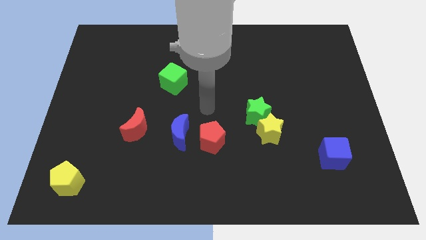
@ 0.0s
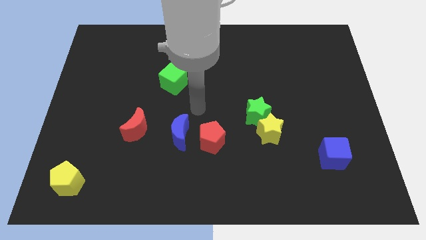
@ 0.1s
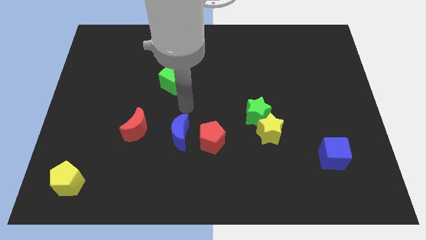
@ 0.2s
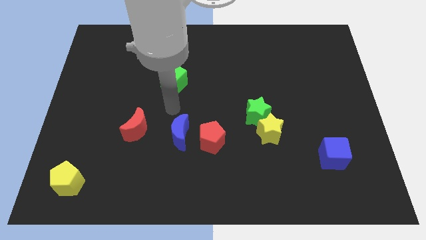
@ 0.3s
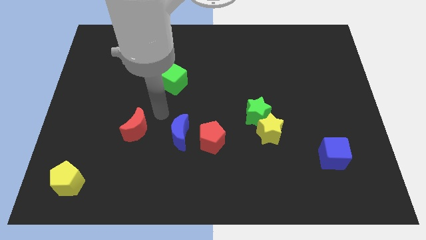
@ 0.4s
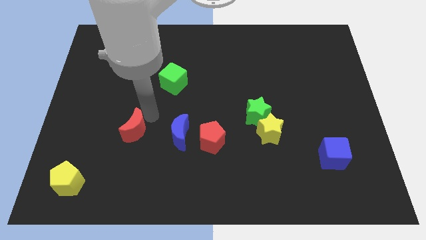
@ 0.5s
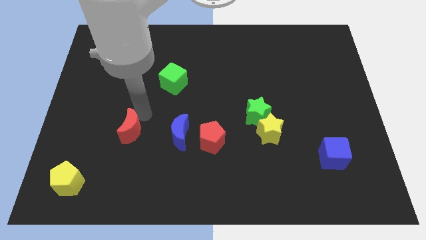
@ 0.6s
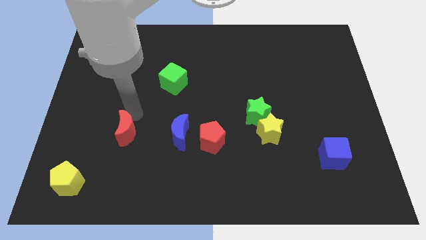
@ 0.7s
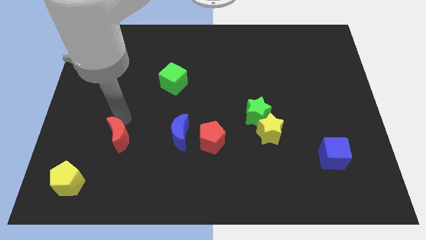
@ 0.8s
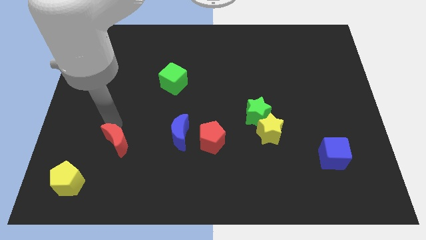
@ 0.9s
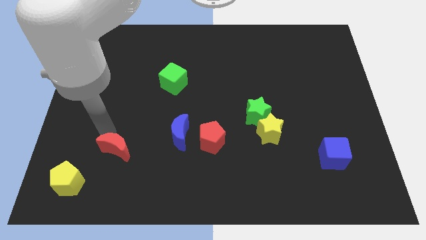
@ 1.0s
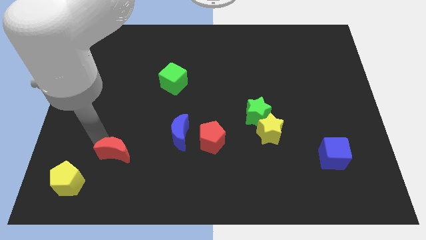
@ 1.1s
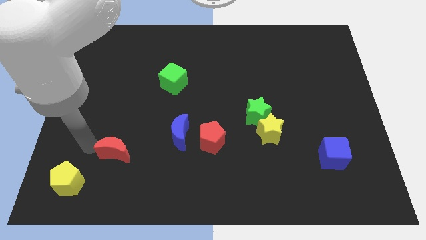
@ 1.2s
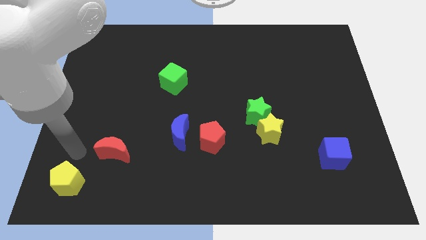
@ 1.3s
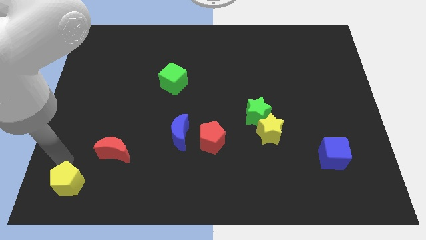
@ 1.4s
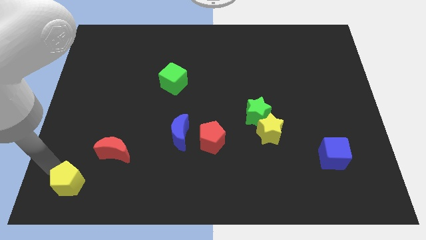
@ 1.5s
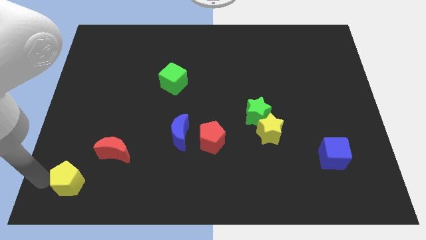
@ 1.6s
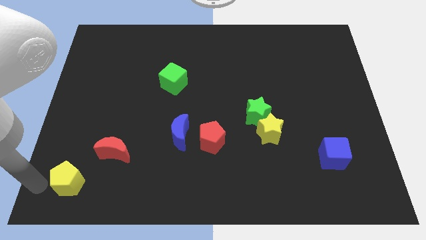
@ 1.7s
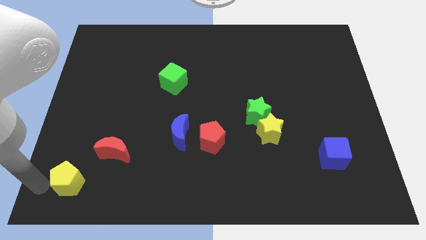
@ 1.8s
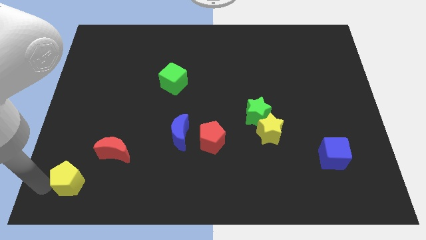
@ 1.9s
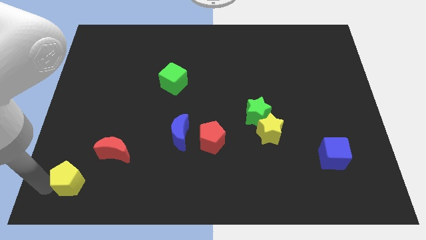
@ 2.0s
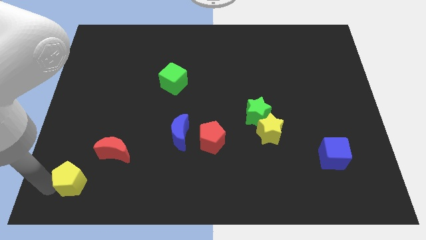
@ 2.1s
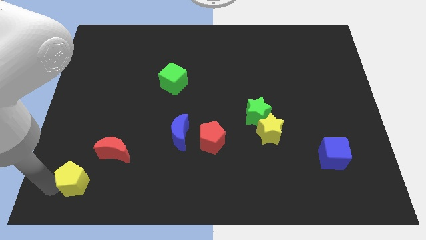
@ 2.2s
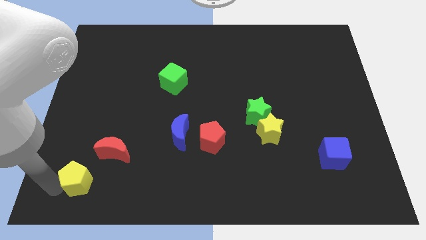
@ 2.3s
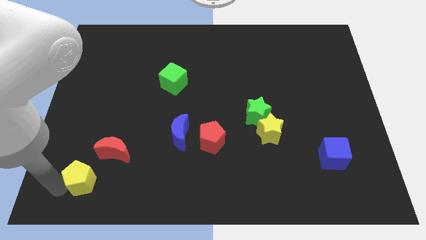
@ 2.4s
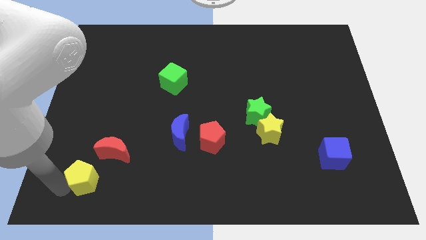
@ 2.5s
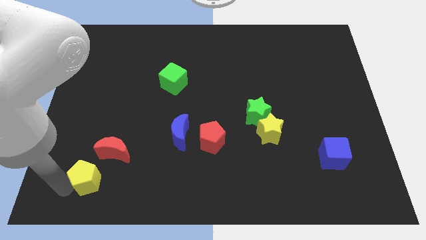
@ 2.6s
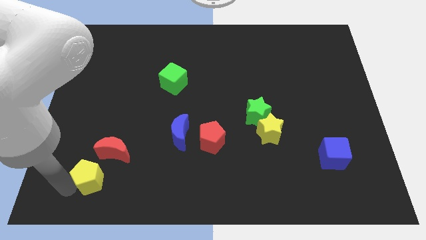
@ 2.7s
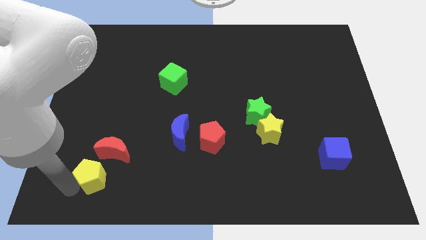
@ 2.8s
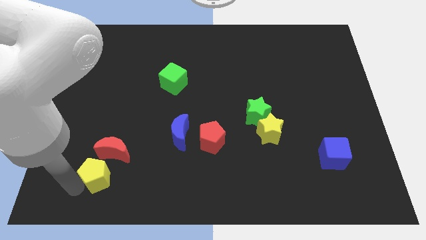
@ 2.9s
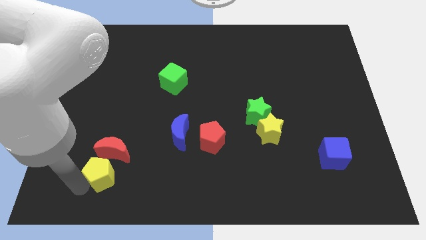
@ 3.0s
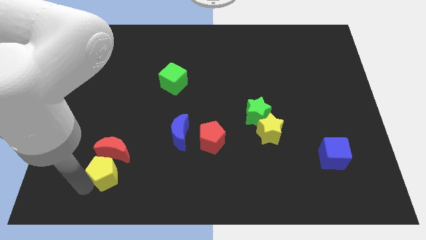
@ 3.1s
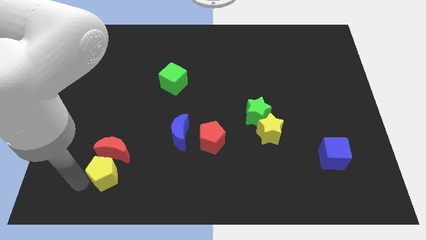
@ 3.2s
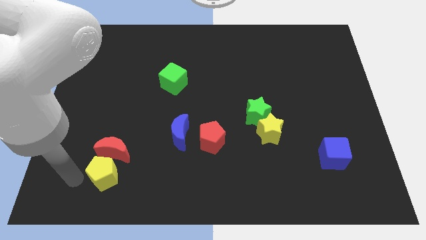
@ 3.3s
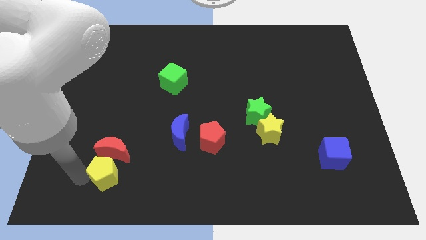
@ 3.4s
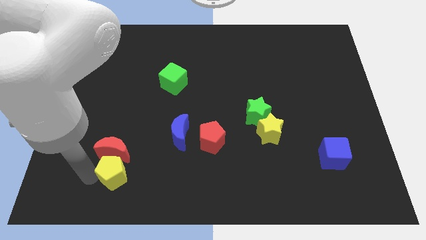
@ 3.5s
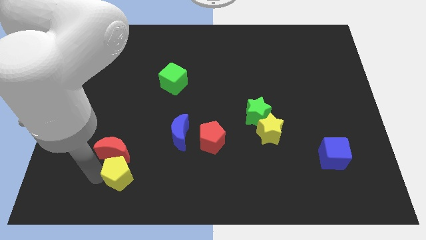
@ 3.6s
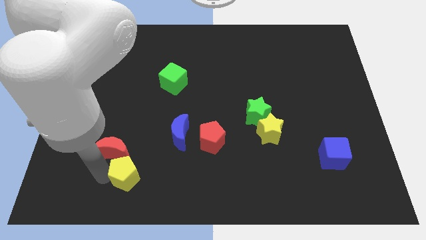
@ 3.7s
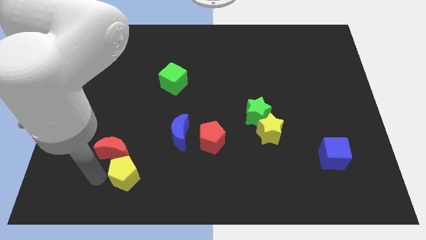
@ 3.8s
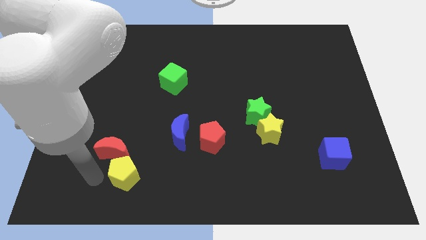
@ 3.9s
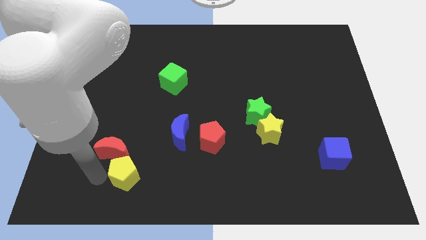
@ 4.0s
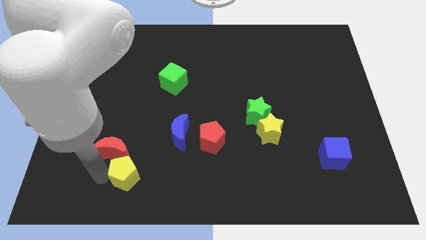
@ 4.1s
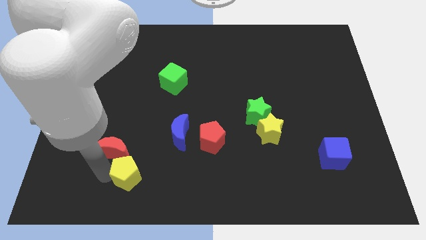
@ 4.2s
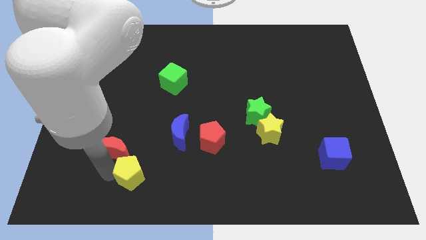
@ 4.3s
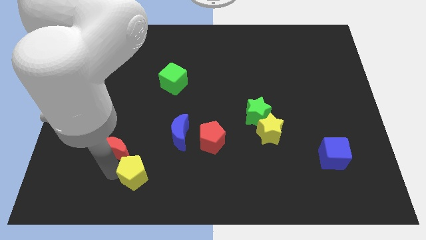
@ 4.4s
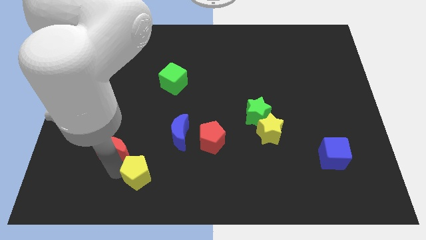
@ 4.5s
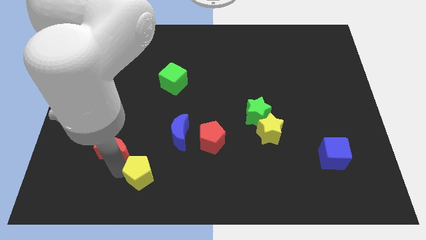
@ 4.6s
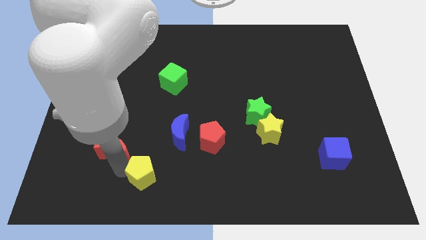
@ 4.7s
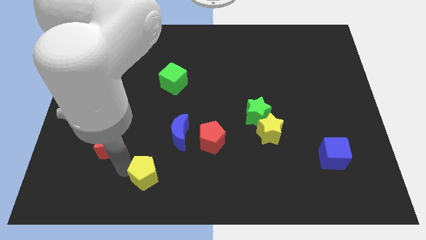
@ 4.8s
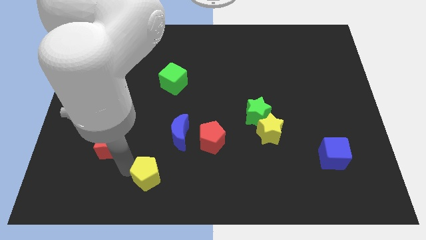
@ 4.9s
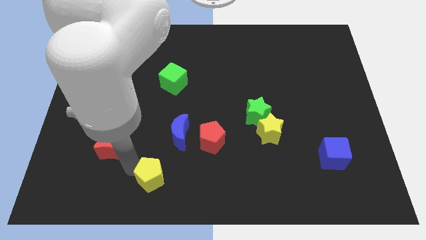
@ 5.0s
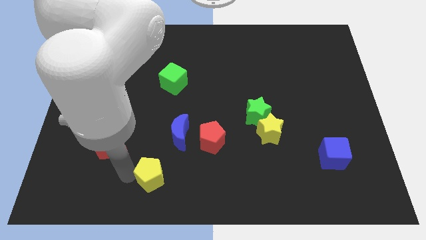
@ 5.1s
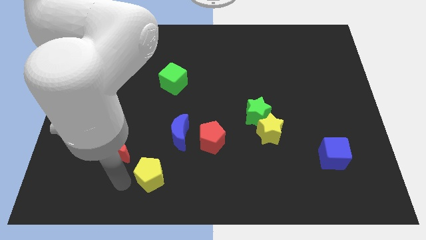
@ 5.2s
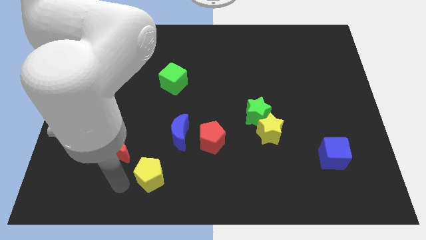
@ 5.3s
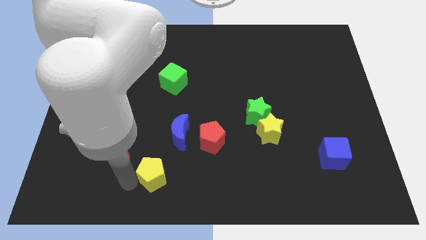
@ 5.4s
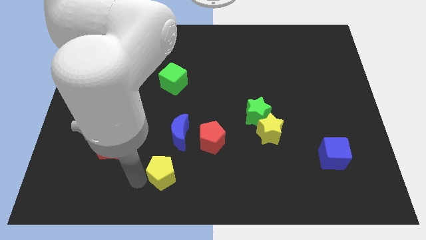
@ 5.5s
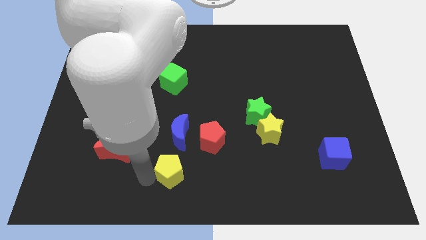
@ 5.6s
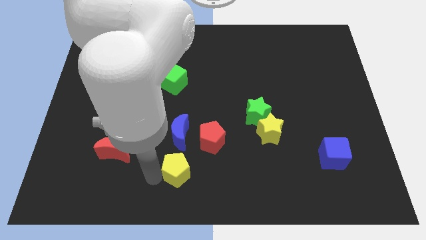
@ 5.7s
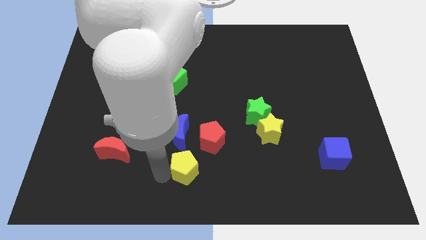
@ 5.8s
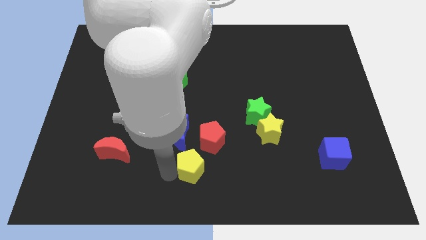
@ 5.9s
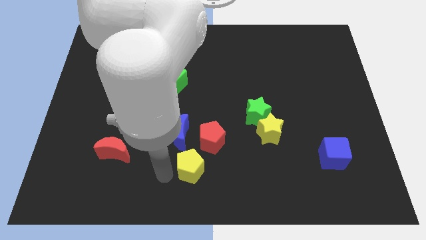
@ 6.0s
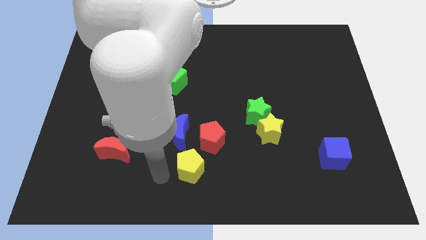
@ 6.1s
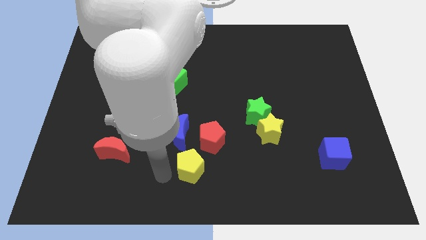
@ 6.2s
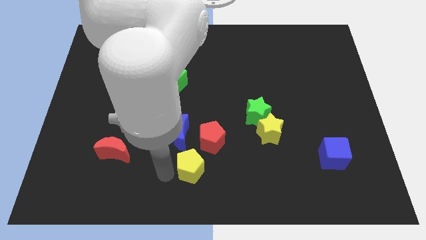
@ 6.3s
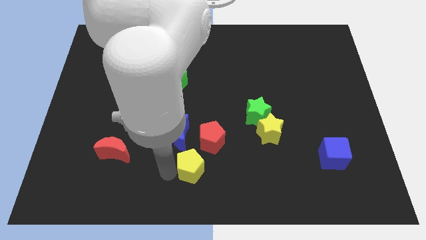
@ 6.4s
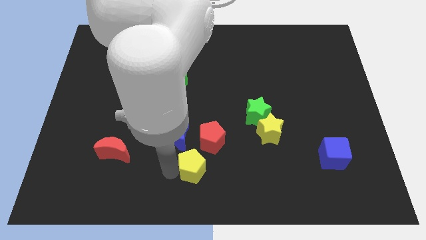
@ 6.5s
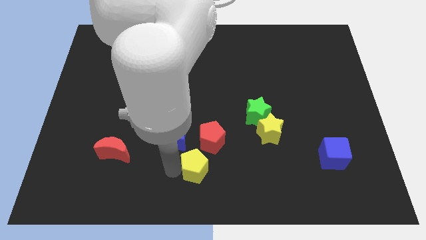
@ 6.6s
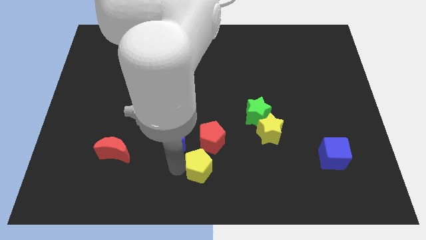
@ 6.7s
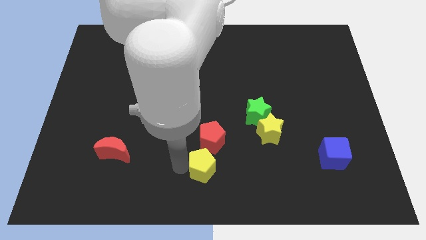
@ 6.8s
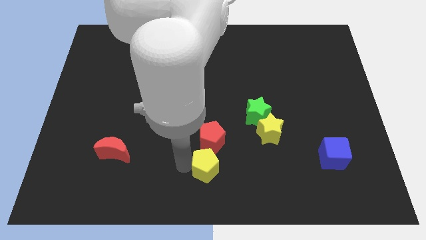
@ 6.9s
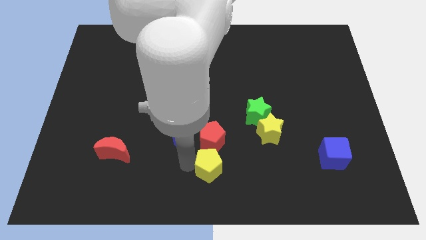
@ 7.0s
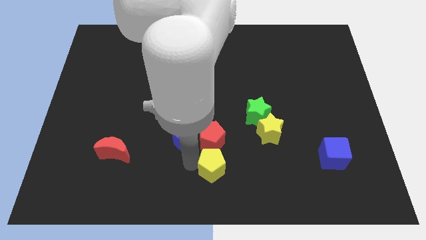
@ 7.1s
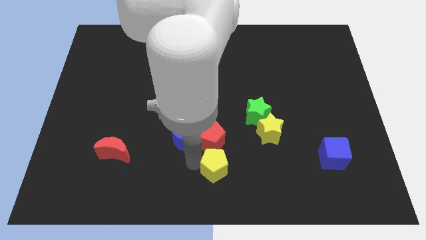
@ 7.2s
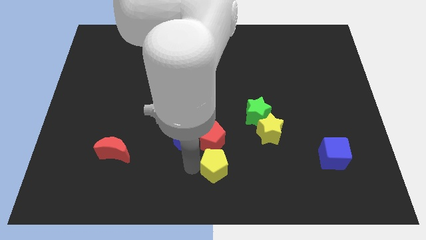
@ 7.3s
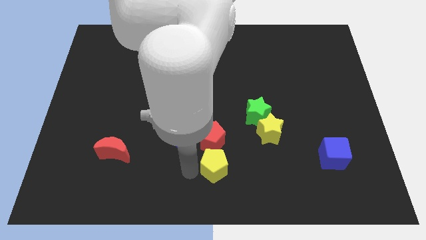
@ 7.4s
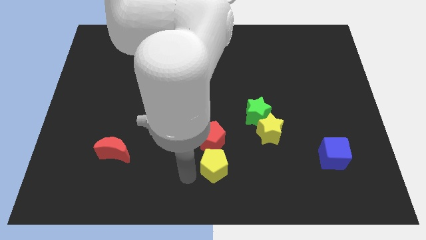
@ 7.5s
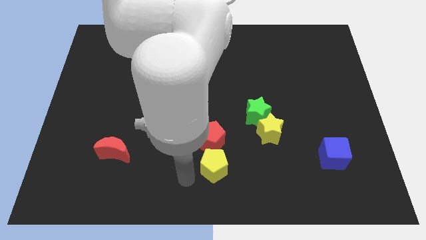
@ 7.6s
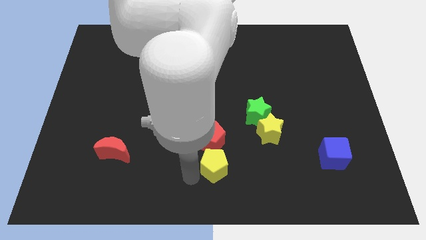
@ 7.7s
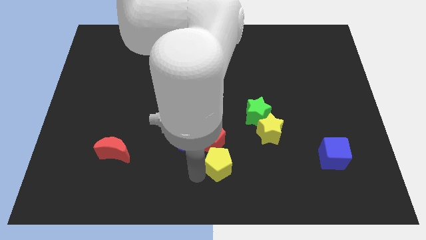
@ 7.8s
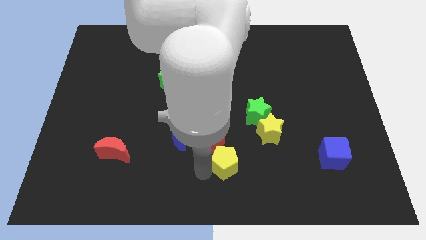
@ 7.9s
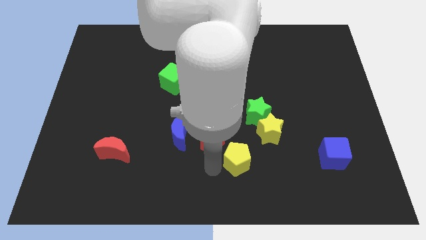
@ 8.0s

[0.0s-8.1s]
put the yellow pentagon to the bottom of the green star
